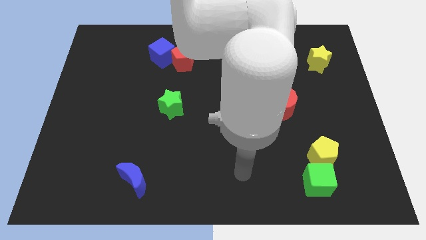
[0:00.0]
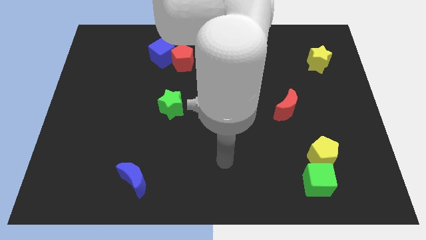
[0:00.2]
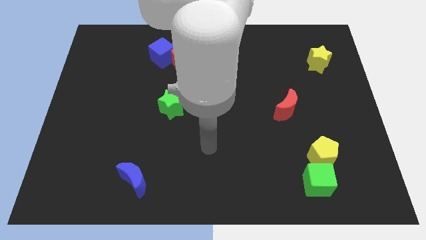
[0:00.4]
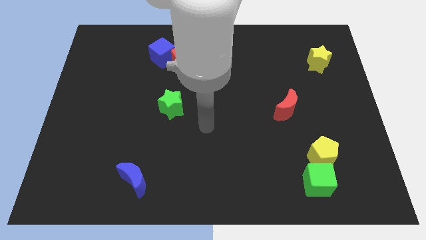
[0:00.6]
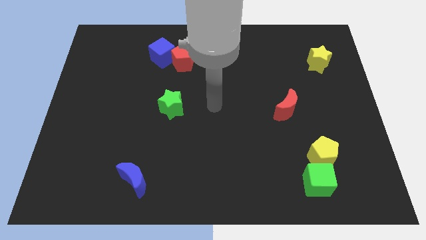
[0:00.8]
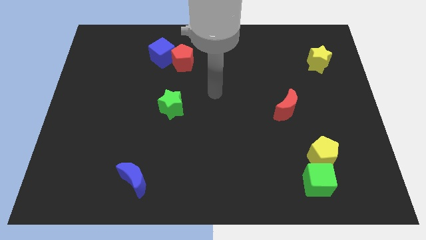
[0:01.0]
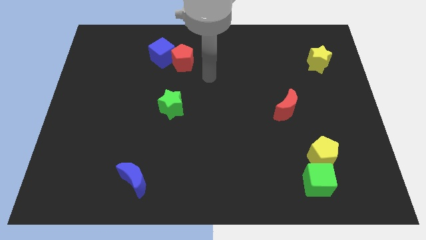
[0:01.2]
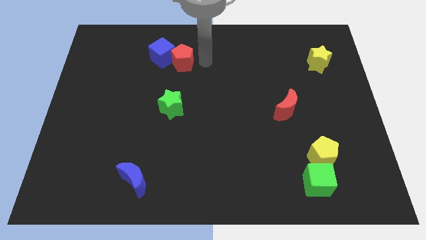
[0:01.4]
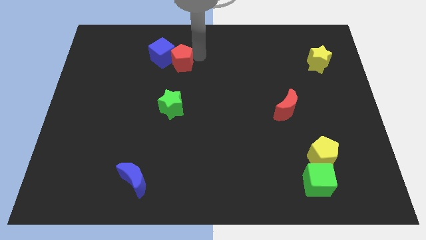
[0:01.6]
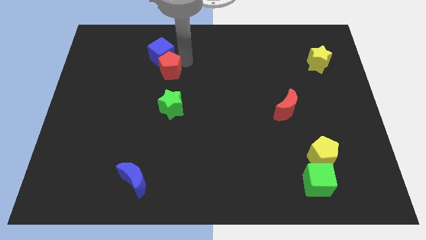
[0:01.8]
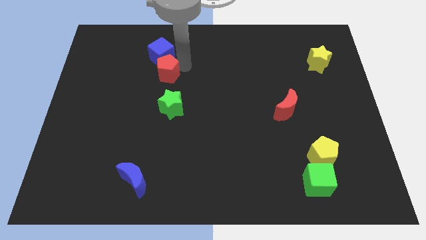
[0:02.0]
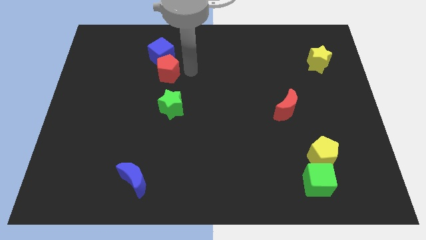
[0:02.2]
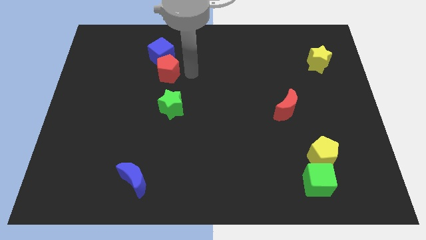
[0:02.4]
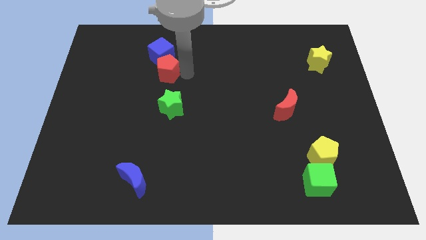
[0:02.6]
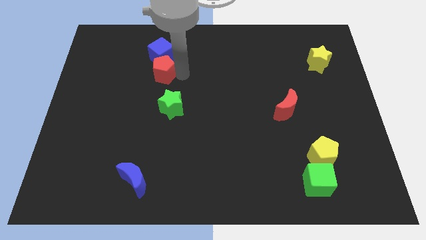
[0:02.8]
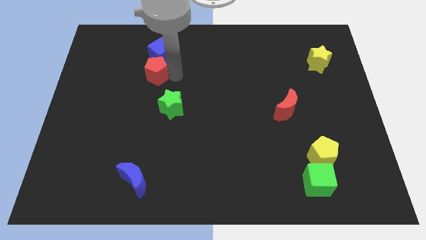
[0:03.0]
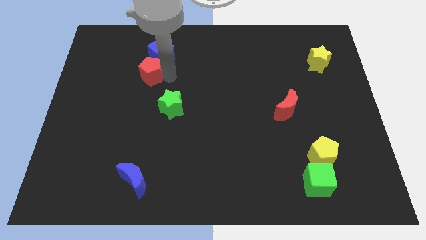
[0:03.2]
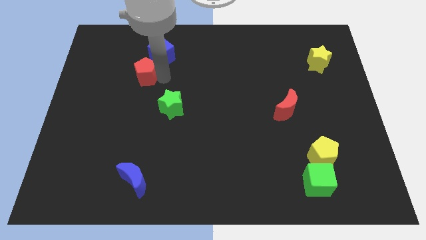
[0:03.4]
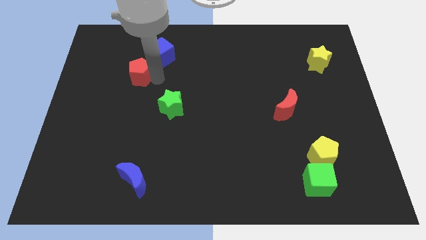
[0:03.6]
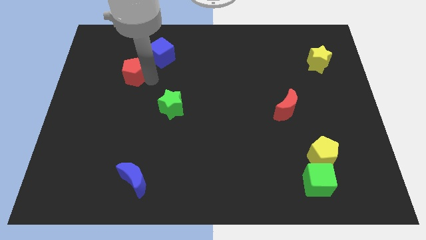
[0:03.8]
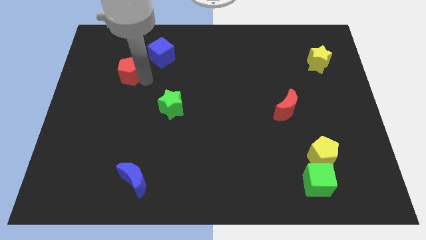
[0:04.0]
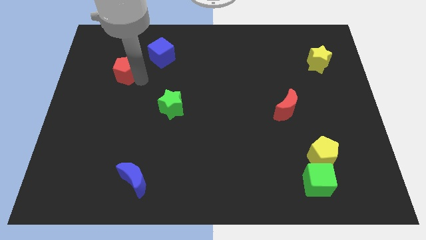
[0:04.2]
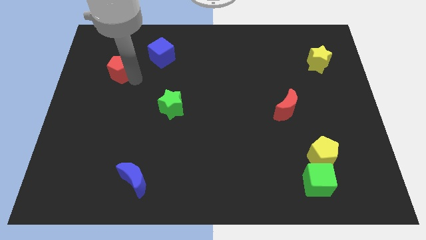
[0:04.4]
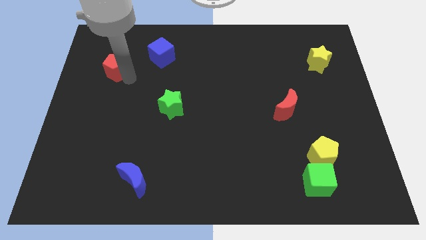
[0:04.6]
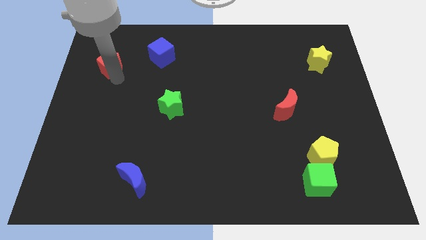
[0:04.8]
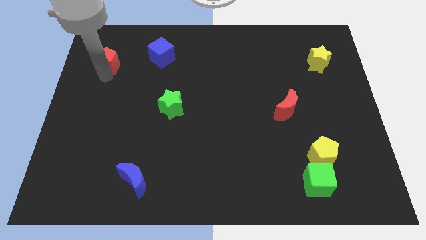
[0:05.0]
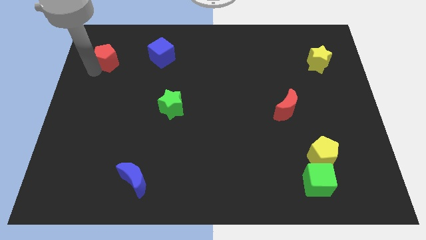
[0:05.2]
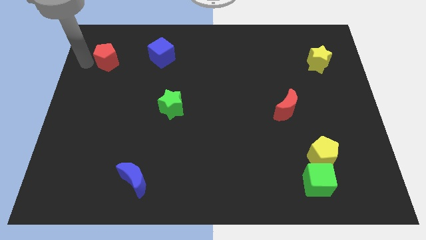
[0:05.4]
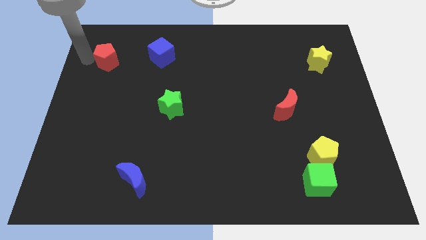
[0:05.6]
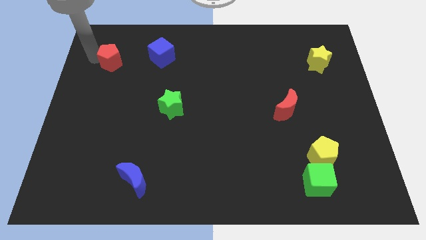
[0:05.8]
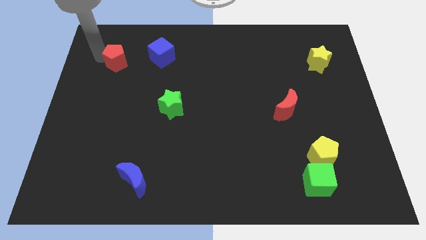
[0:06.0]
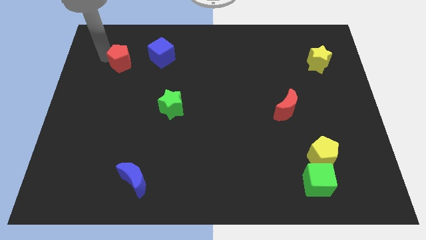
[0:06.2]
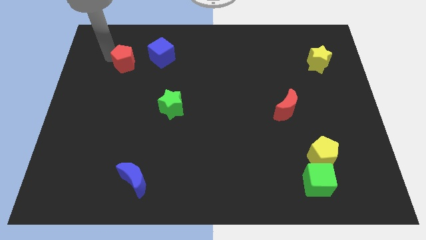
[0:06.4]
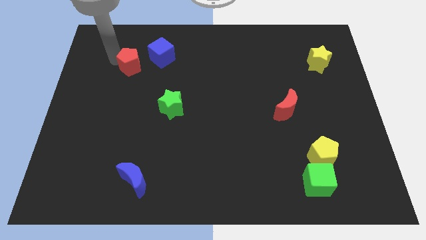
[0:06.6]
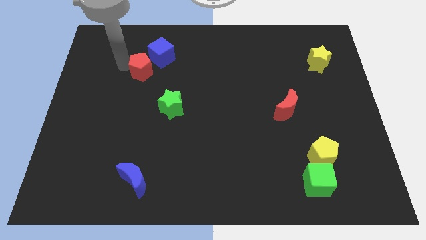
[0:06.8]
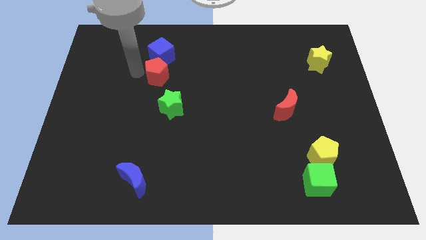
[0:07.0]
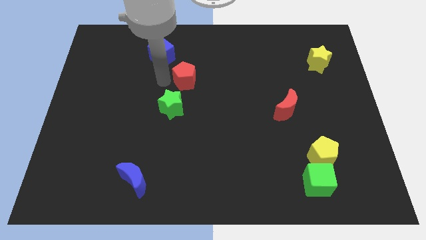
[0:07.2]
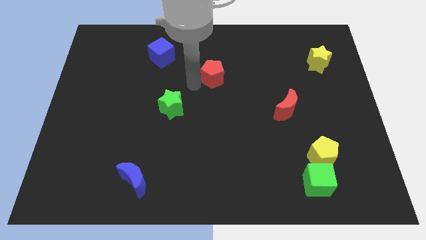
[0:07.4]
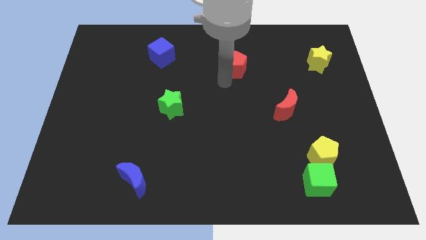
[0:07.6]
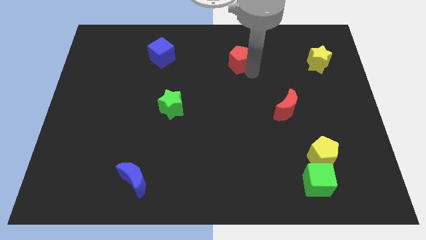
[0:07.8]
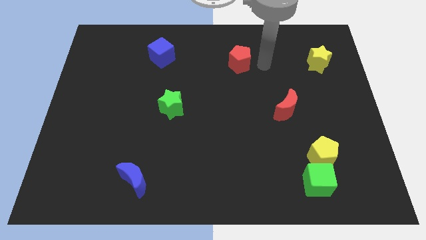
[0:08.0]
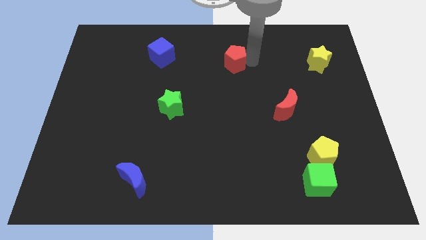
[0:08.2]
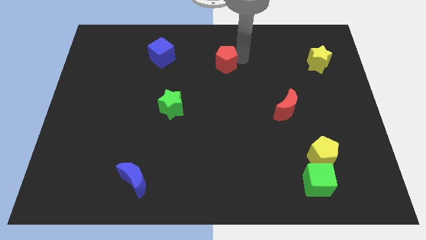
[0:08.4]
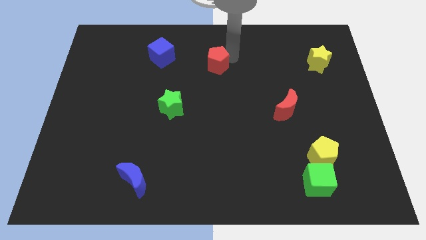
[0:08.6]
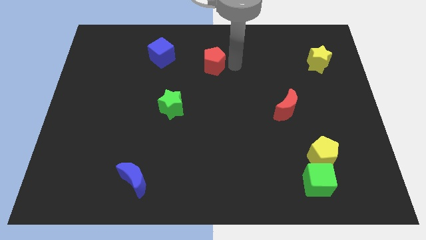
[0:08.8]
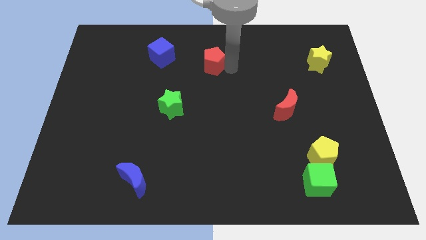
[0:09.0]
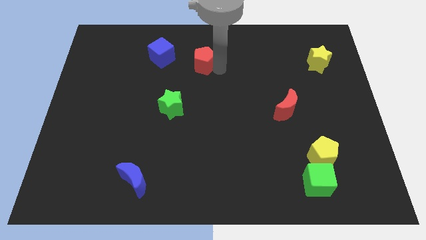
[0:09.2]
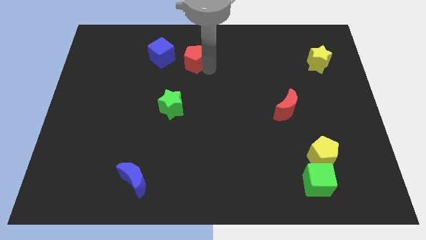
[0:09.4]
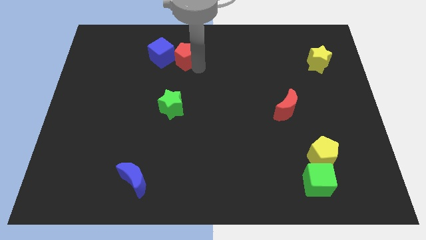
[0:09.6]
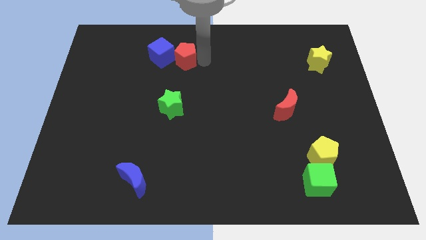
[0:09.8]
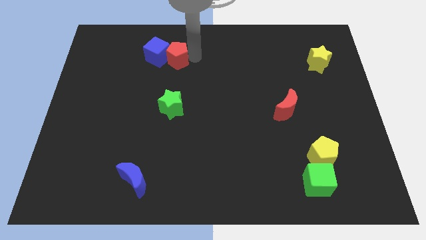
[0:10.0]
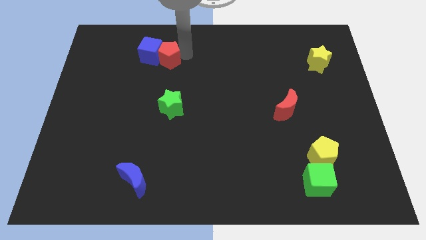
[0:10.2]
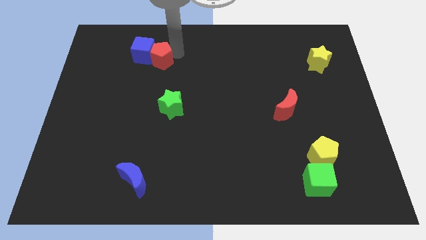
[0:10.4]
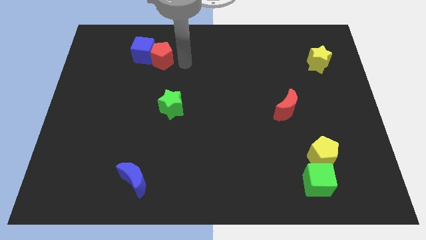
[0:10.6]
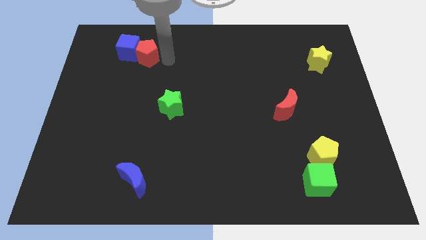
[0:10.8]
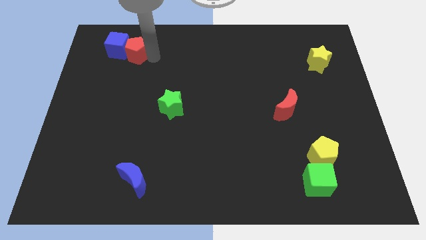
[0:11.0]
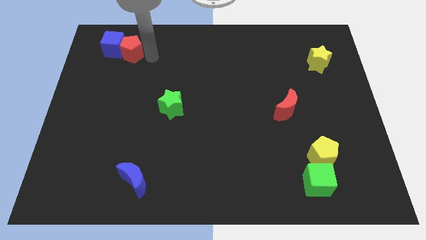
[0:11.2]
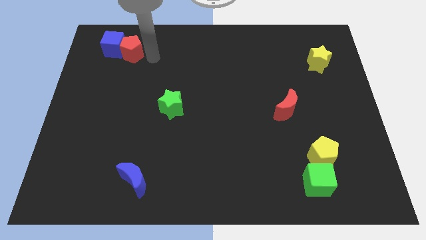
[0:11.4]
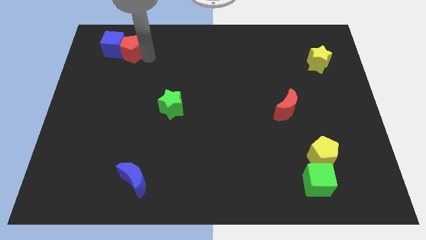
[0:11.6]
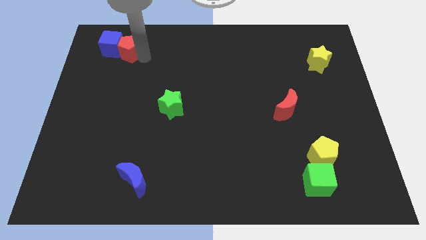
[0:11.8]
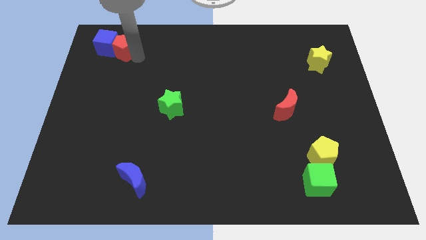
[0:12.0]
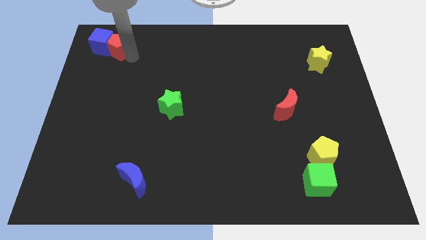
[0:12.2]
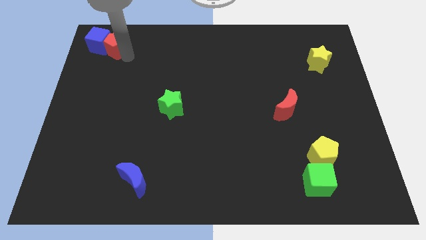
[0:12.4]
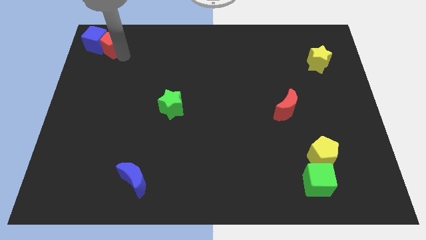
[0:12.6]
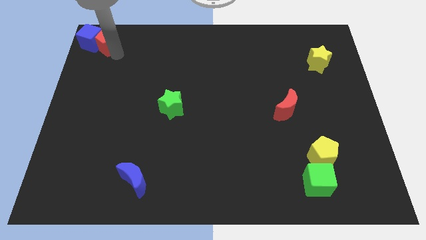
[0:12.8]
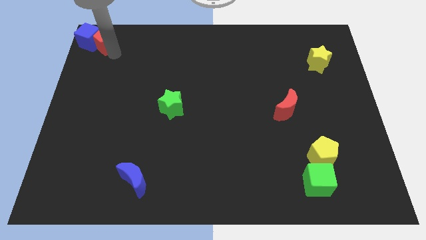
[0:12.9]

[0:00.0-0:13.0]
slide the red pentagon to the top left of the board

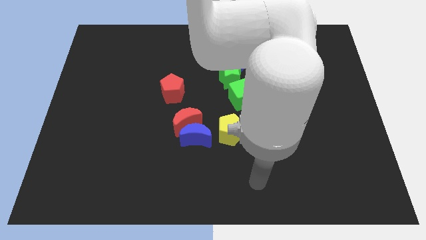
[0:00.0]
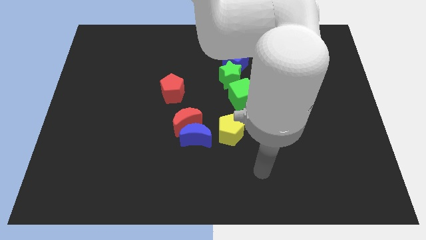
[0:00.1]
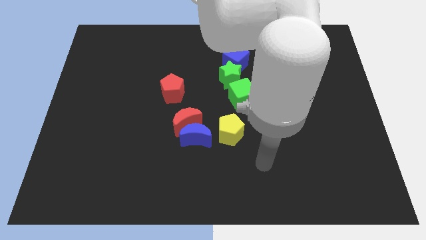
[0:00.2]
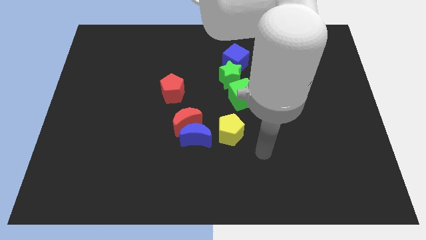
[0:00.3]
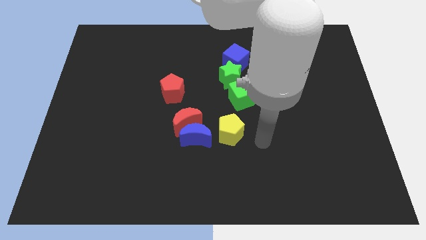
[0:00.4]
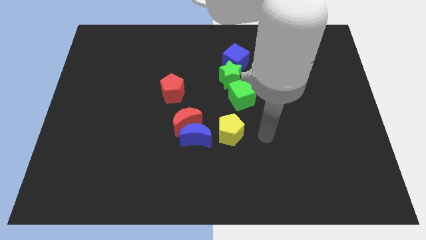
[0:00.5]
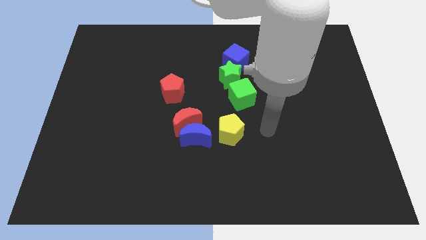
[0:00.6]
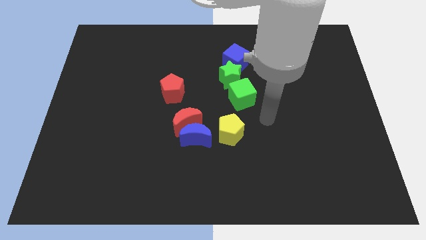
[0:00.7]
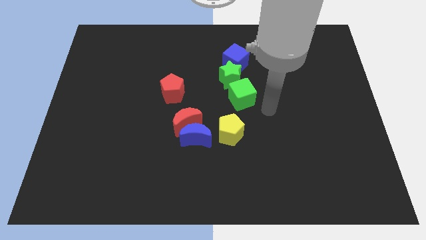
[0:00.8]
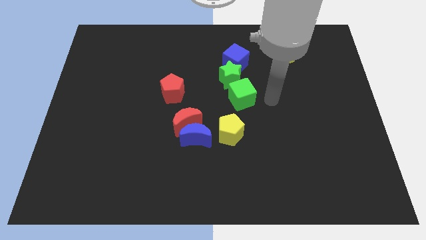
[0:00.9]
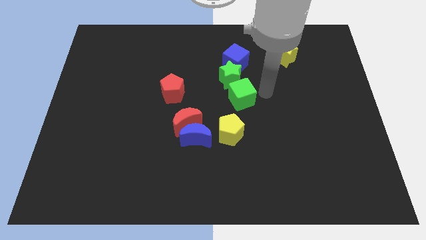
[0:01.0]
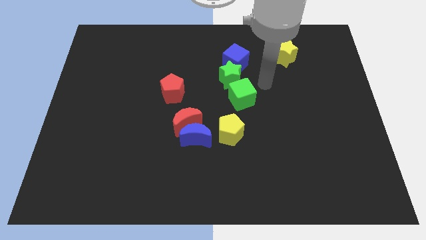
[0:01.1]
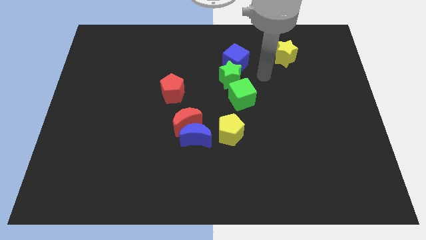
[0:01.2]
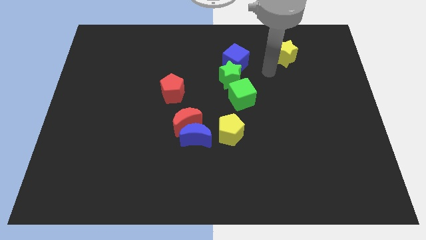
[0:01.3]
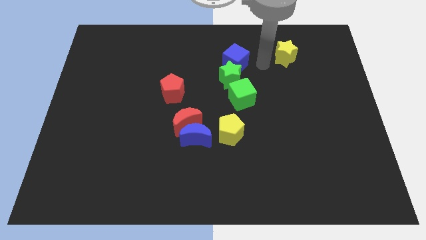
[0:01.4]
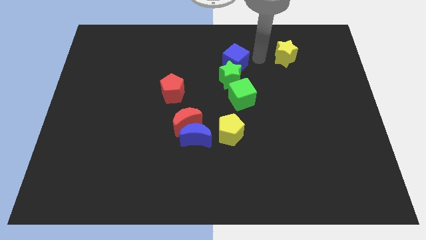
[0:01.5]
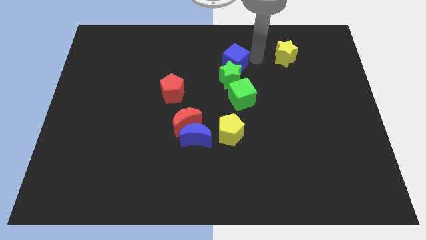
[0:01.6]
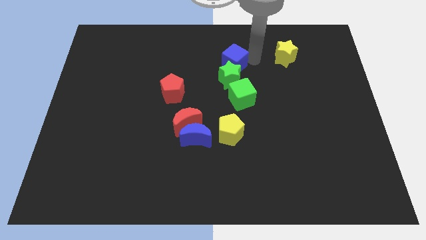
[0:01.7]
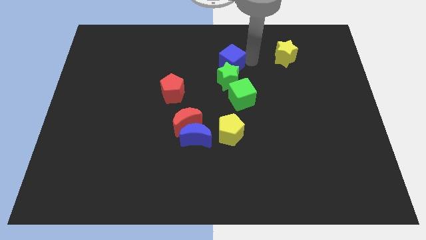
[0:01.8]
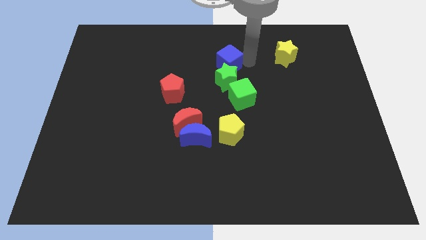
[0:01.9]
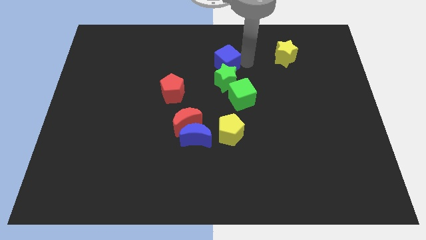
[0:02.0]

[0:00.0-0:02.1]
slide the blue cube to the center of the board
